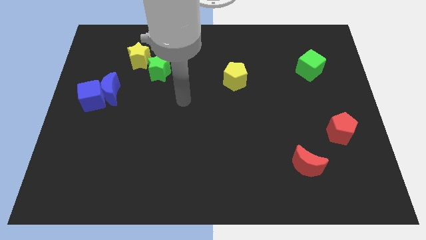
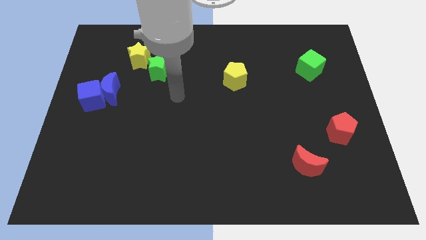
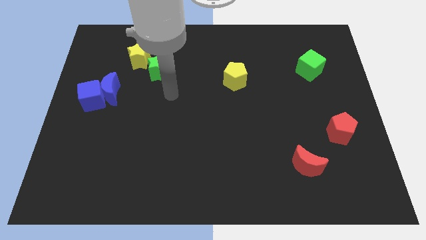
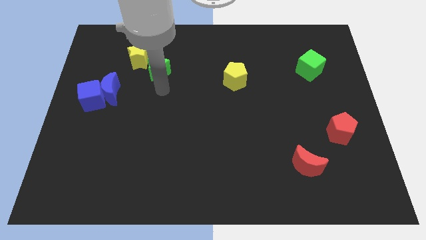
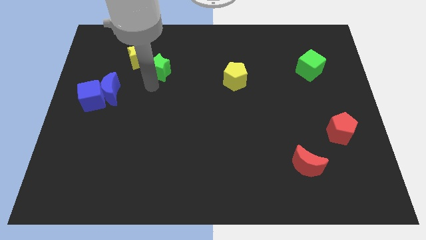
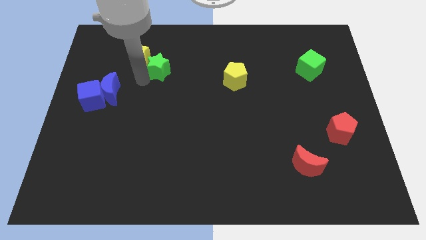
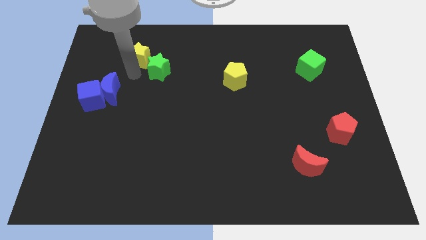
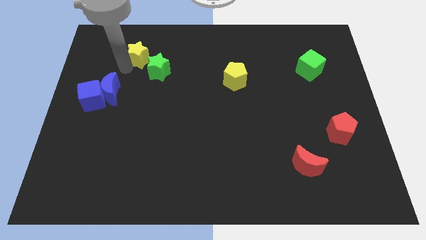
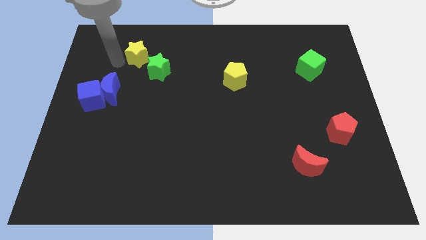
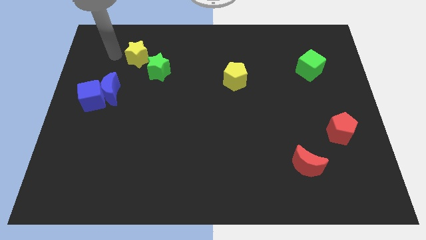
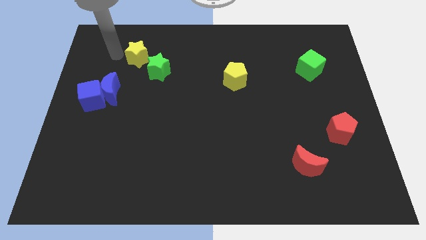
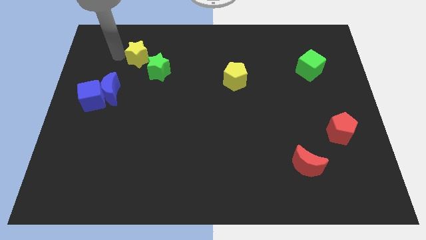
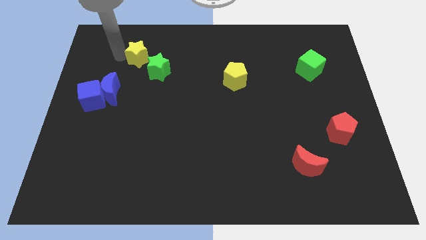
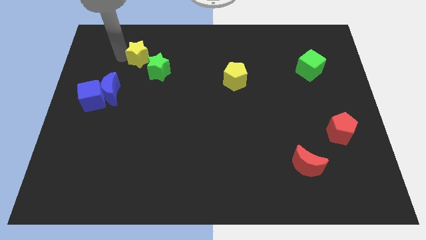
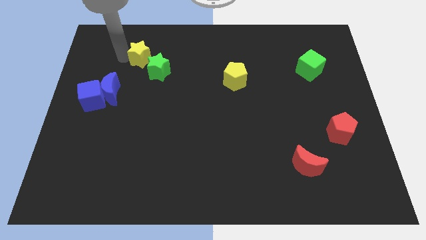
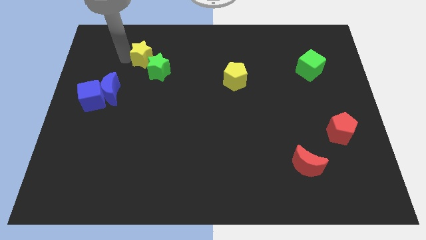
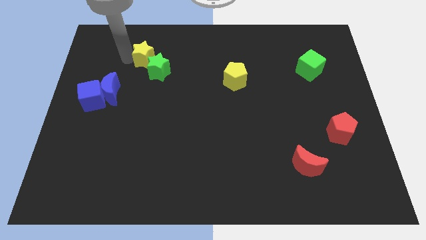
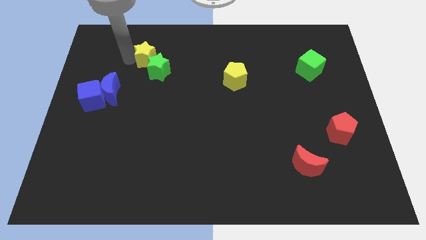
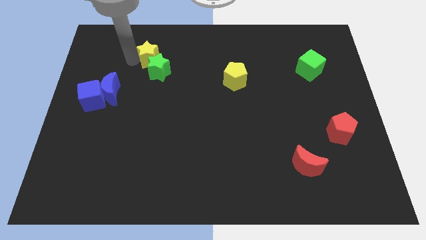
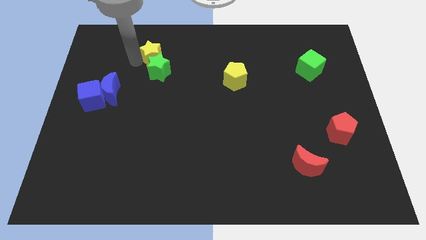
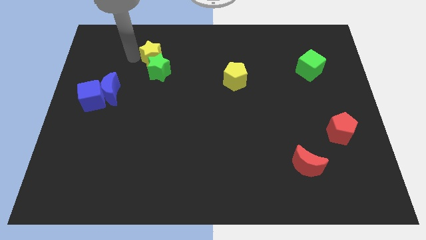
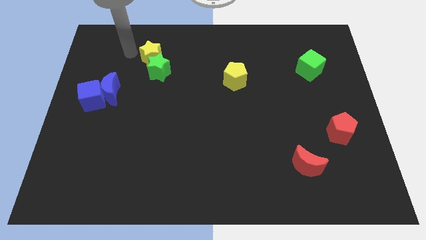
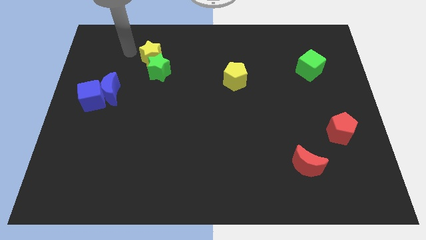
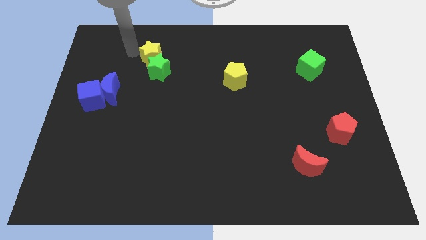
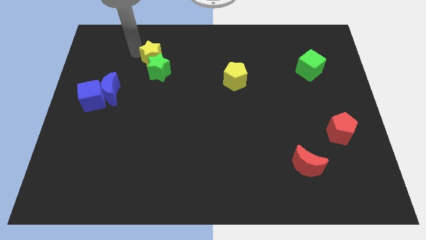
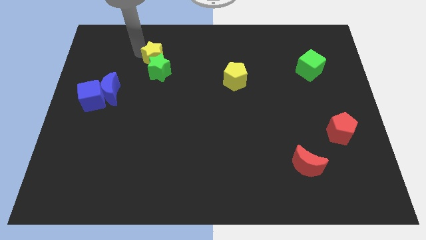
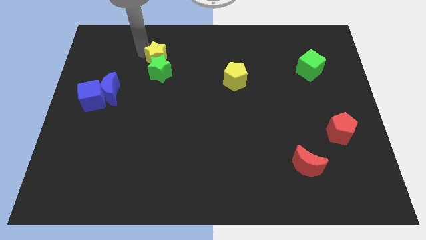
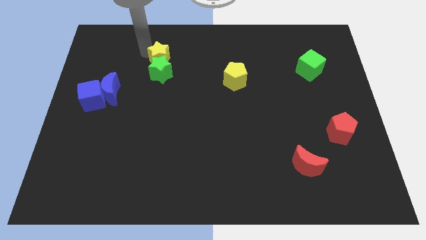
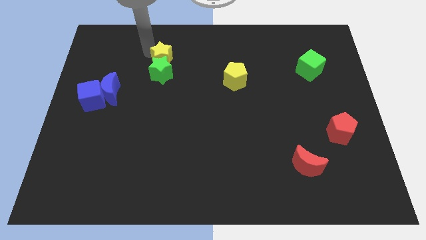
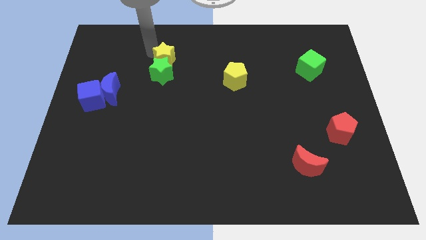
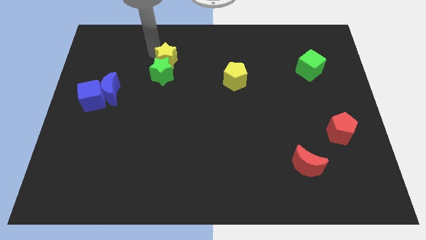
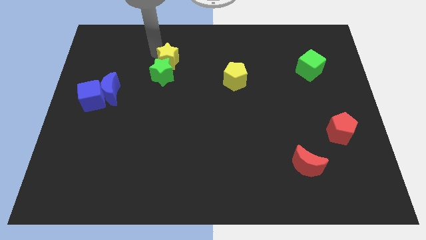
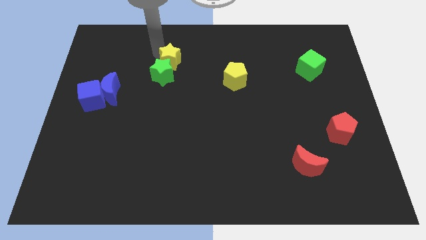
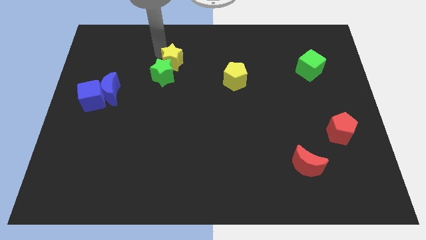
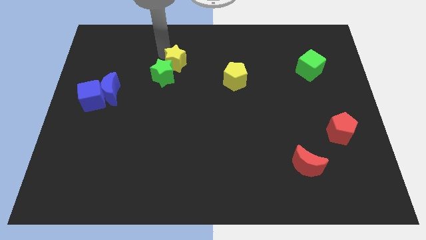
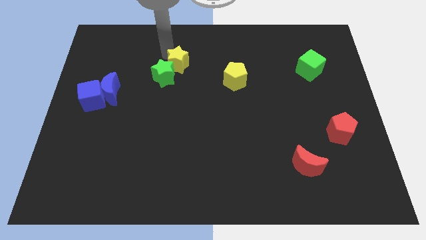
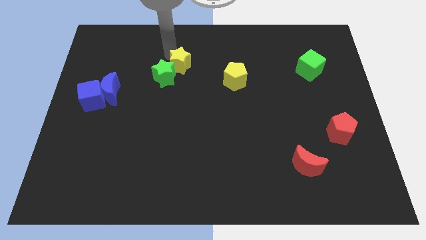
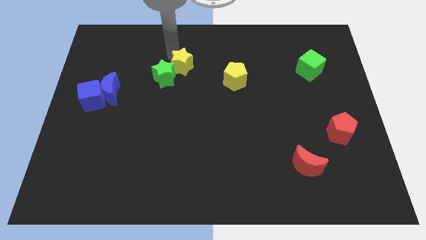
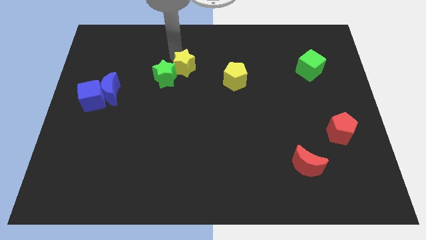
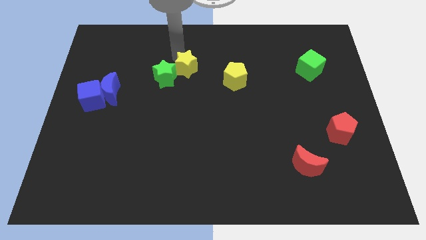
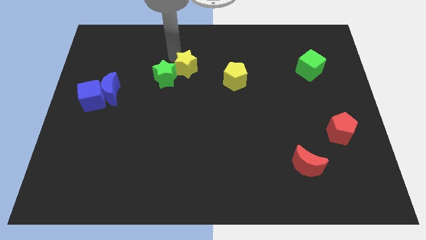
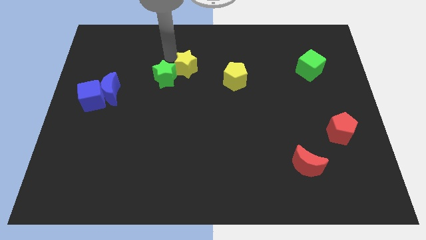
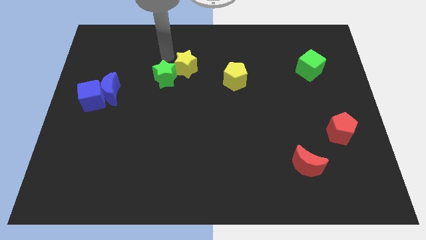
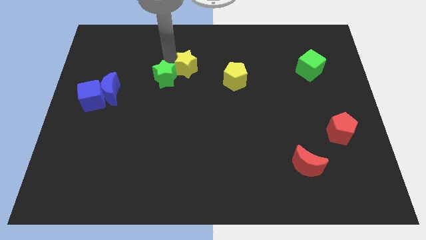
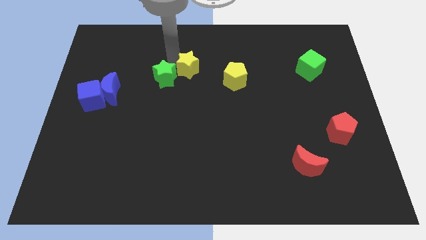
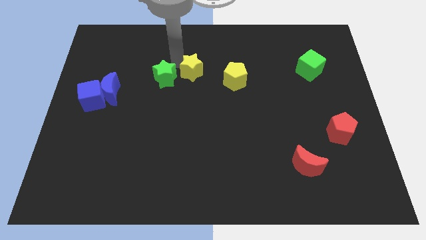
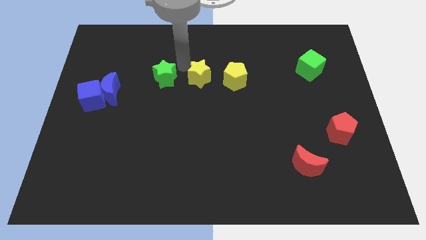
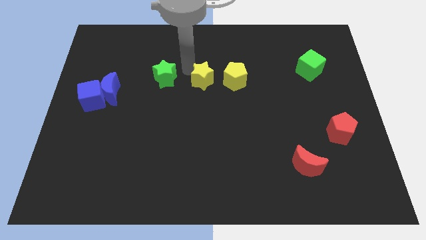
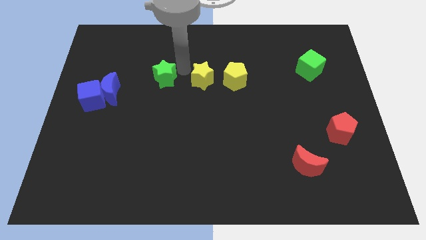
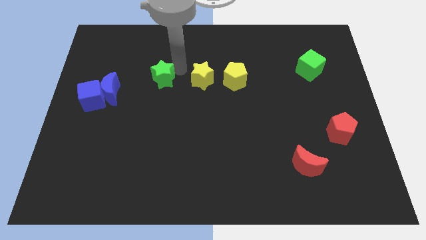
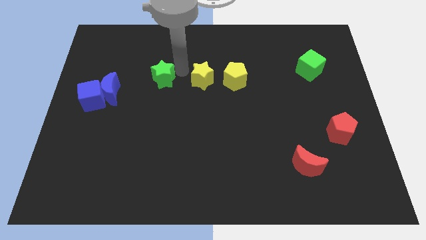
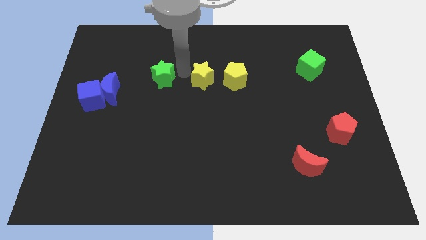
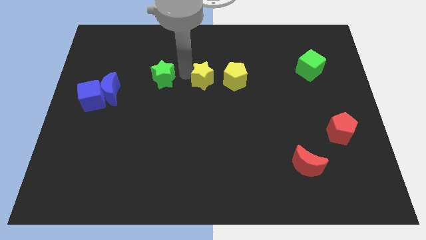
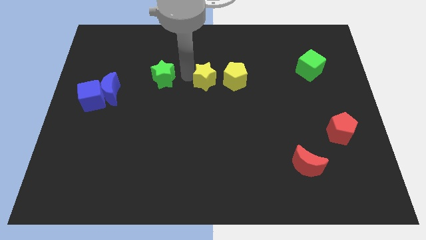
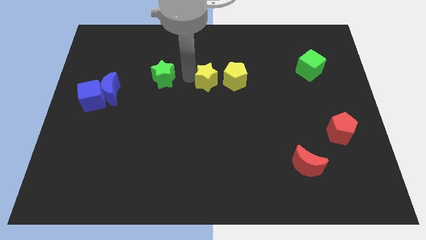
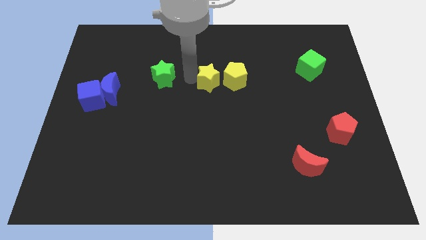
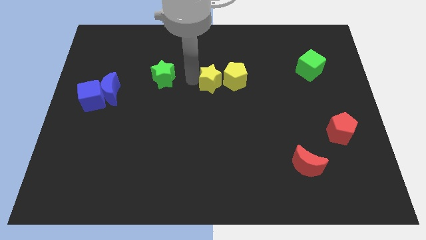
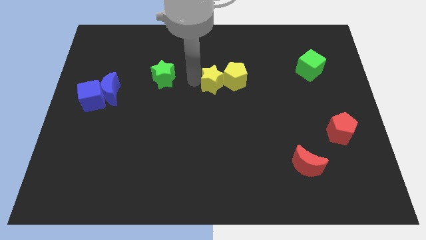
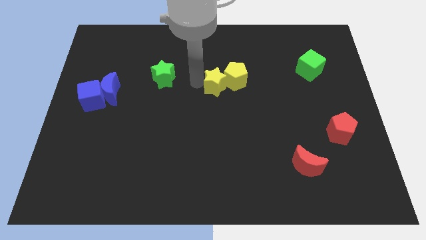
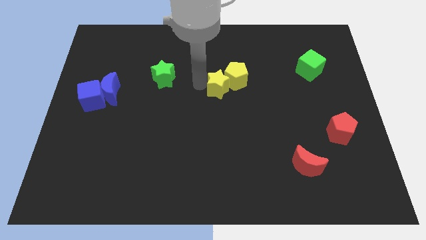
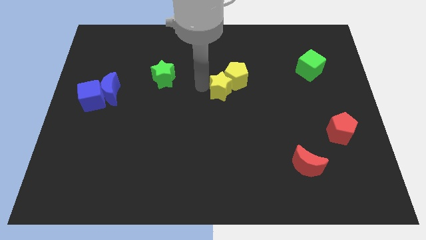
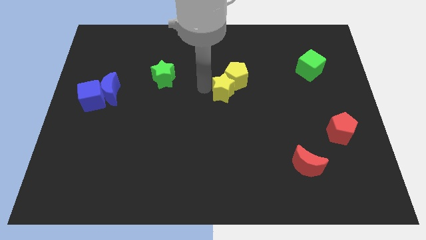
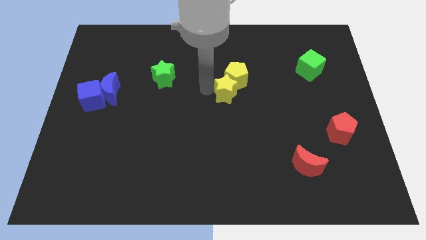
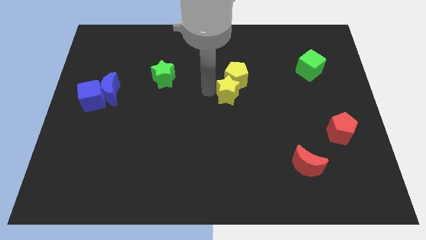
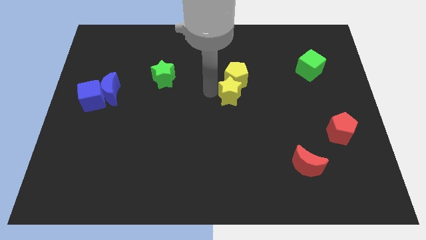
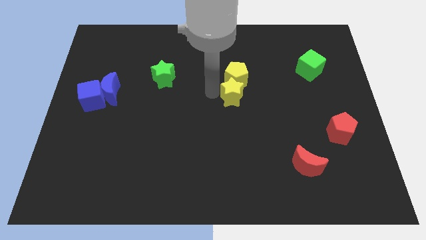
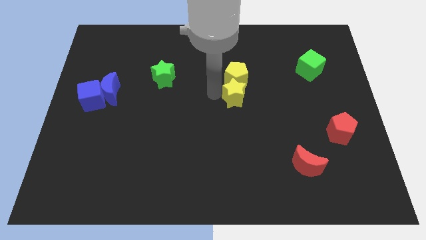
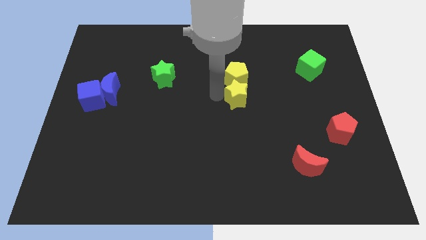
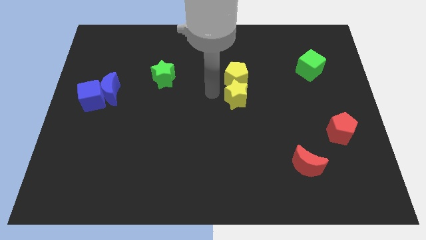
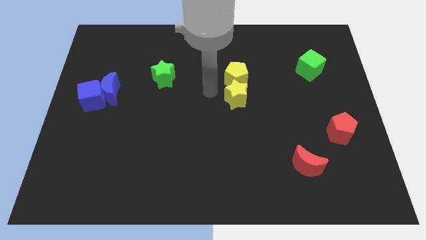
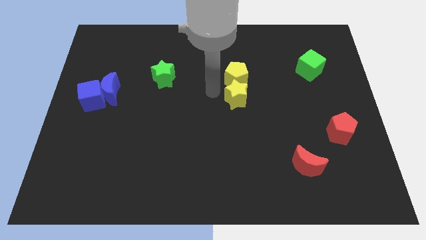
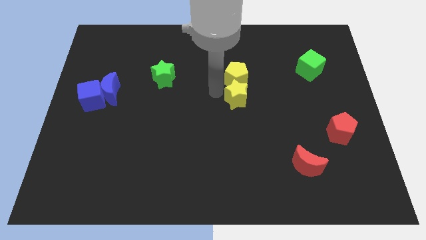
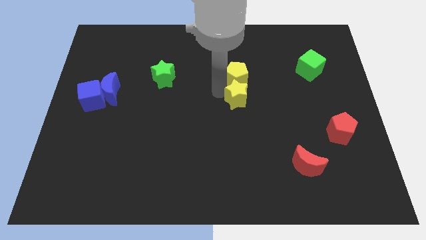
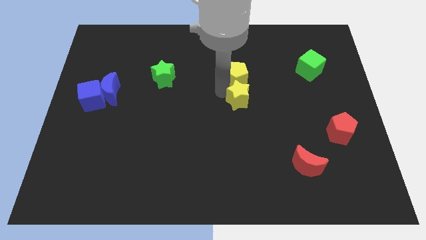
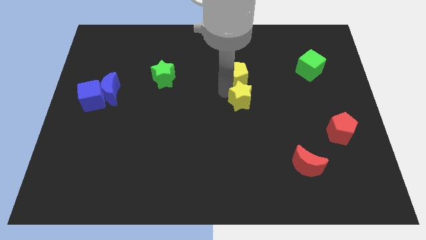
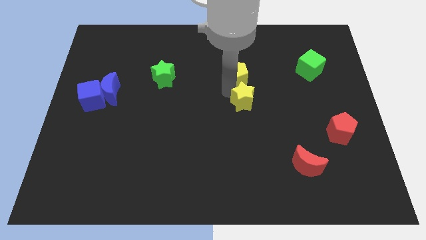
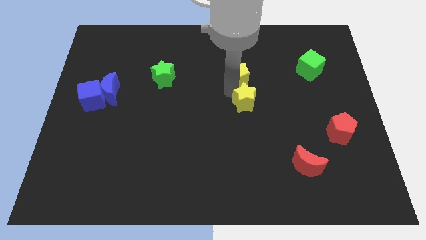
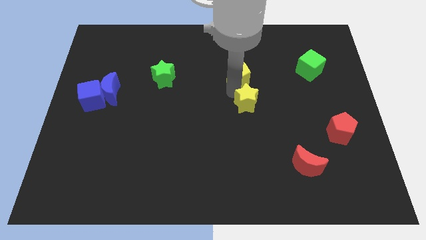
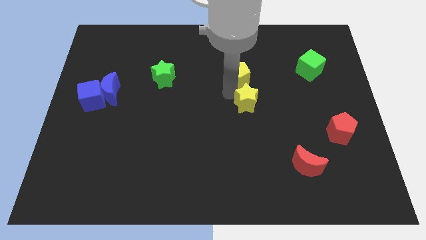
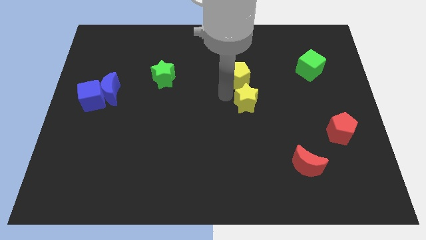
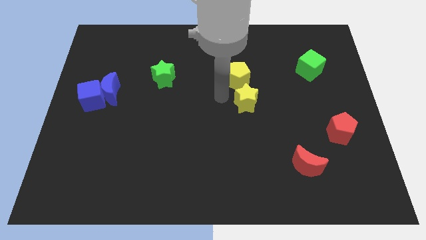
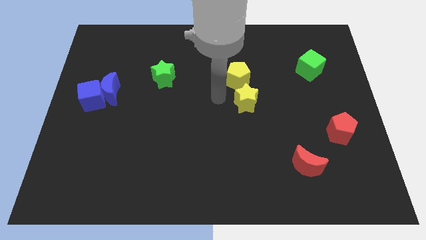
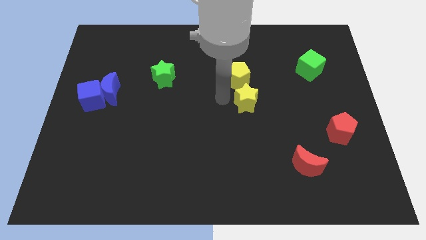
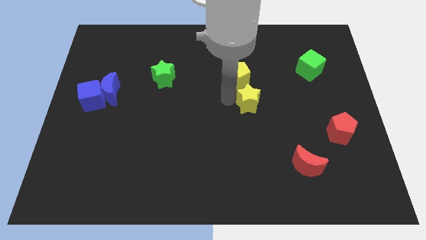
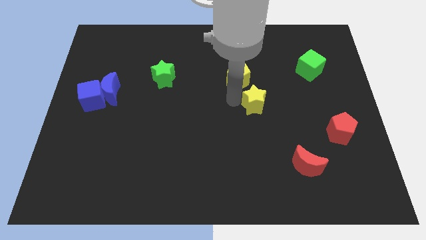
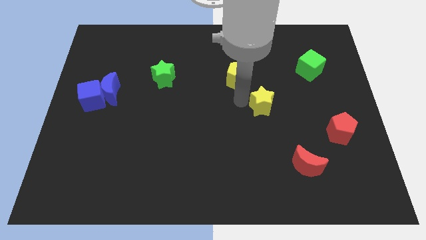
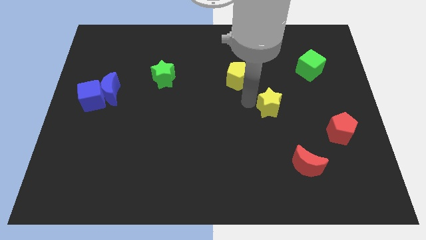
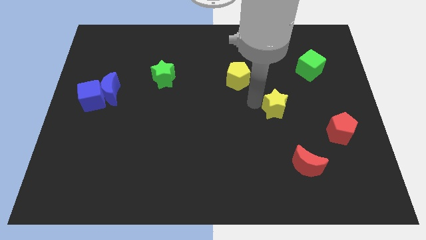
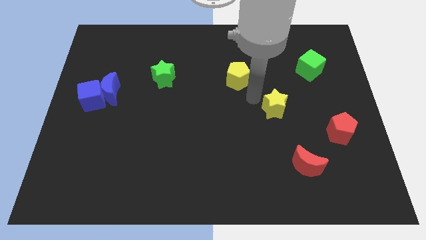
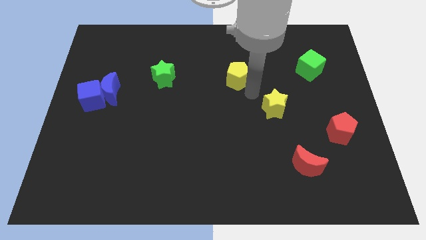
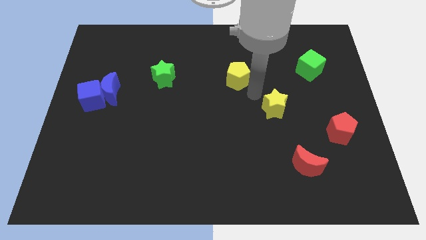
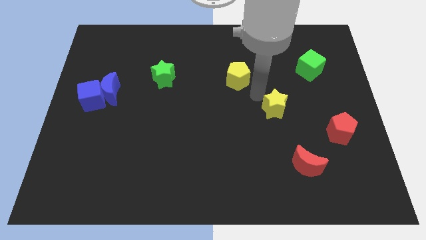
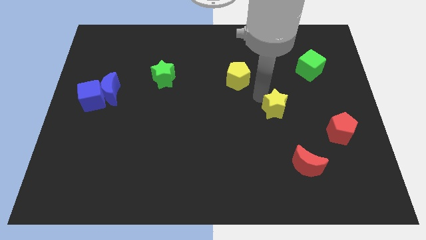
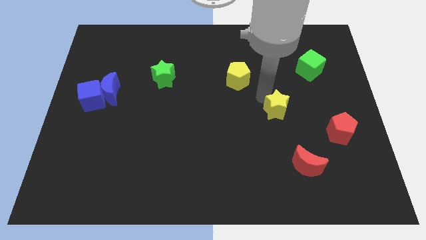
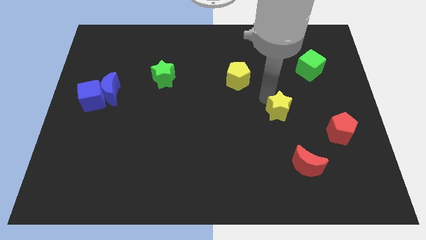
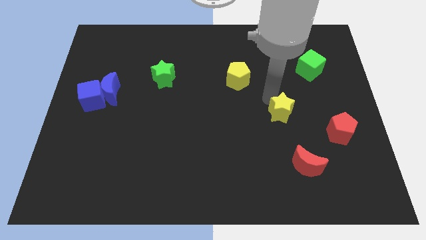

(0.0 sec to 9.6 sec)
push the yellow star to the top side of the red moon
